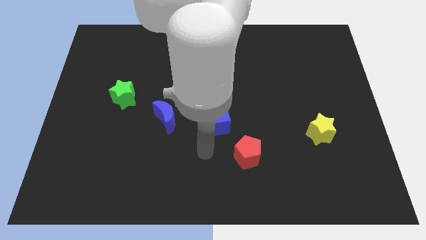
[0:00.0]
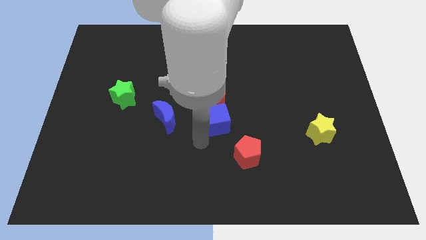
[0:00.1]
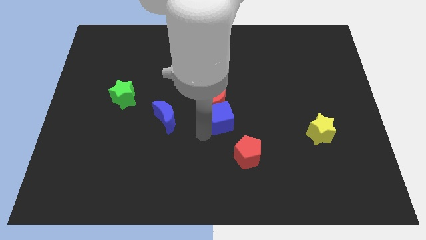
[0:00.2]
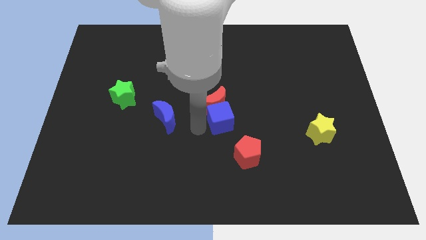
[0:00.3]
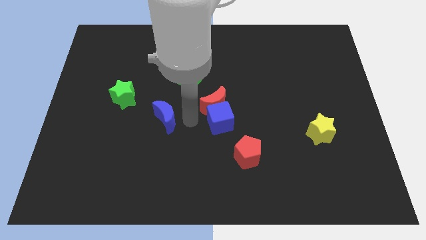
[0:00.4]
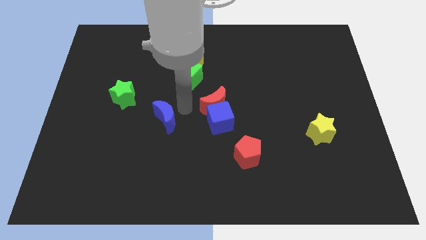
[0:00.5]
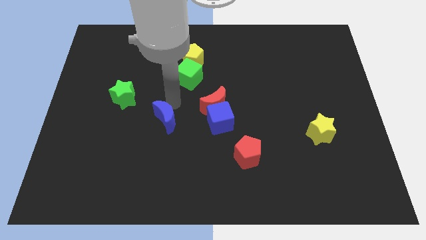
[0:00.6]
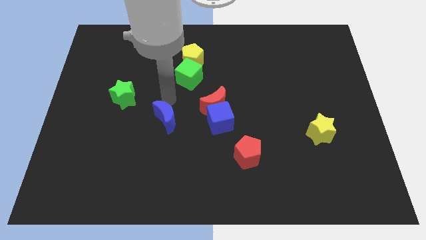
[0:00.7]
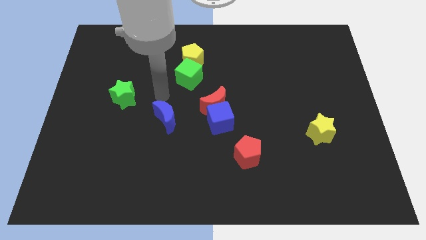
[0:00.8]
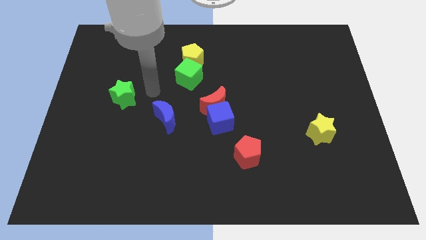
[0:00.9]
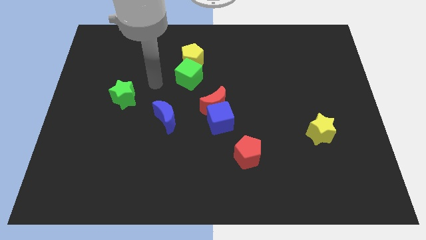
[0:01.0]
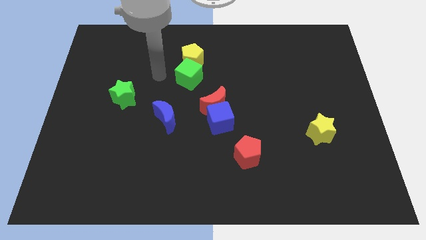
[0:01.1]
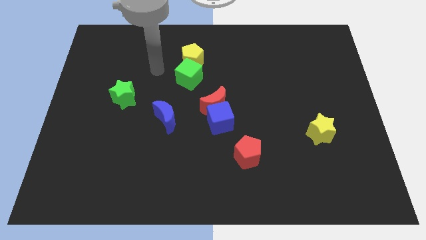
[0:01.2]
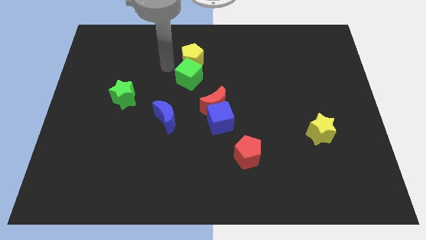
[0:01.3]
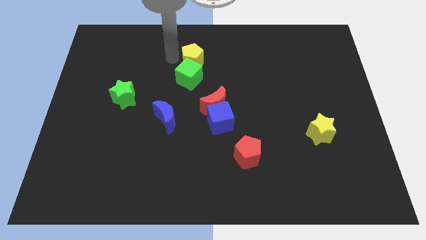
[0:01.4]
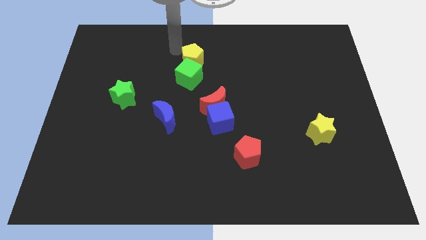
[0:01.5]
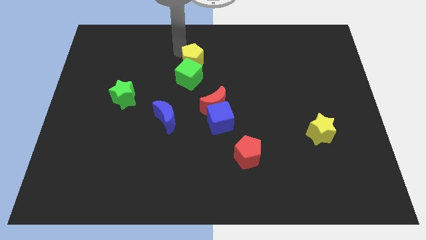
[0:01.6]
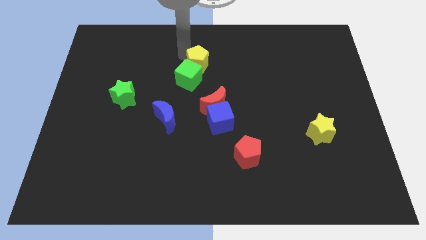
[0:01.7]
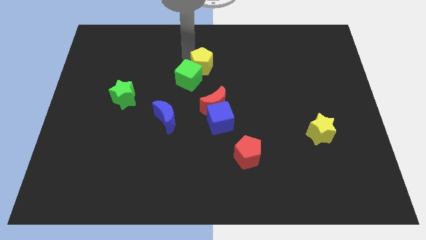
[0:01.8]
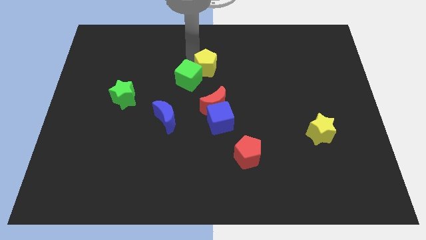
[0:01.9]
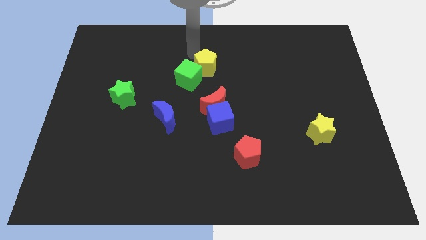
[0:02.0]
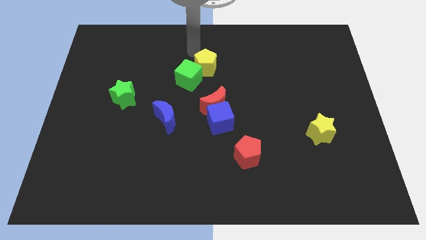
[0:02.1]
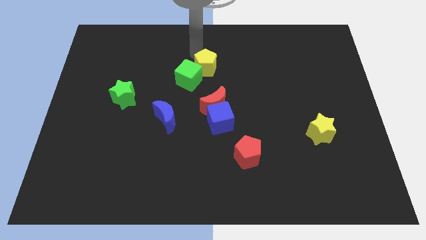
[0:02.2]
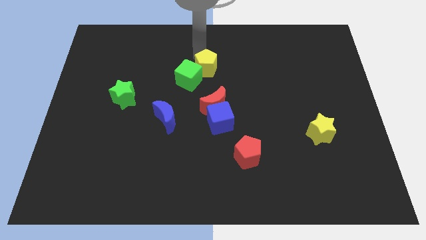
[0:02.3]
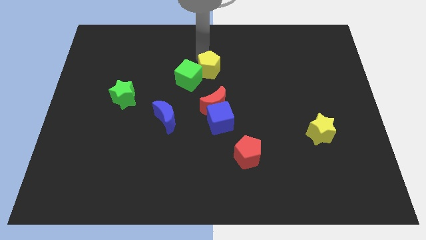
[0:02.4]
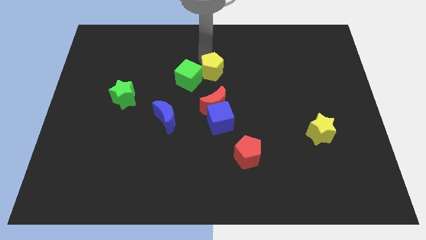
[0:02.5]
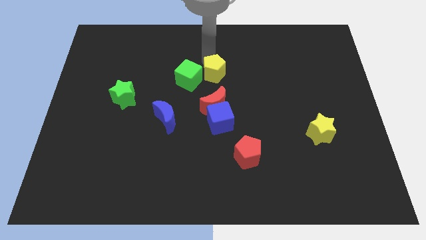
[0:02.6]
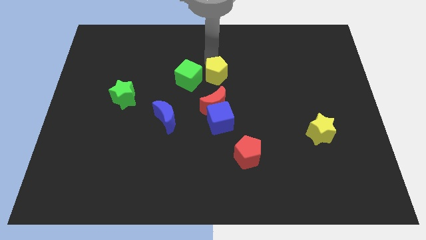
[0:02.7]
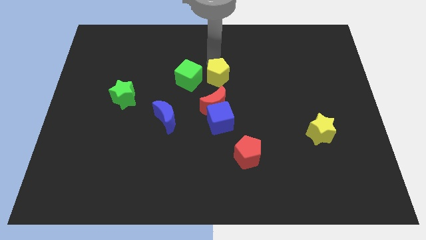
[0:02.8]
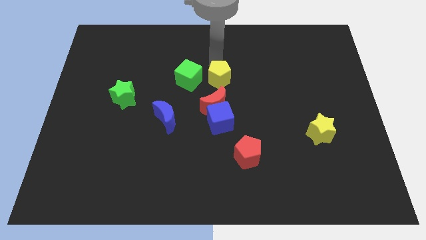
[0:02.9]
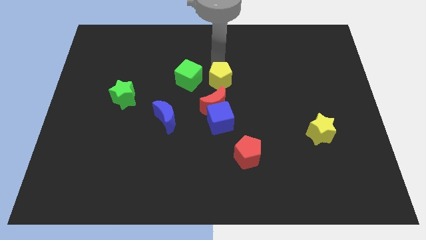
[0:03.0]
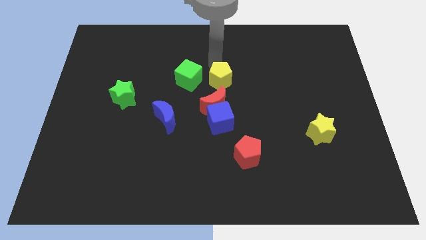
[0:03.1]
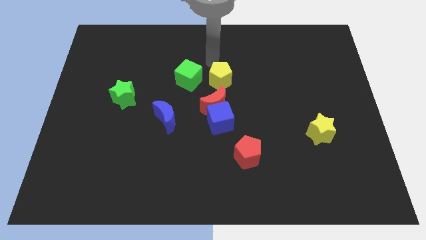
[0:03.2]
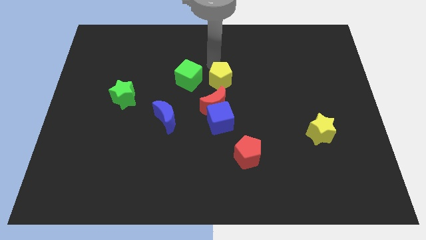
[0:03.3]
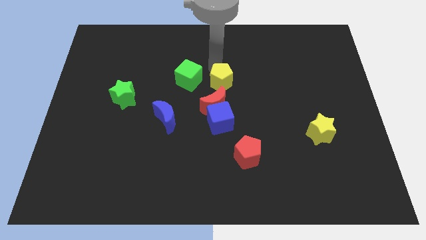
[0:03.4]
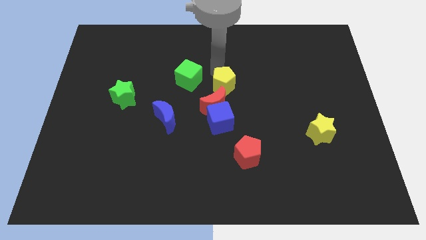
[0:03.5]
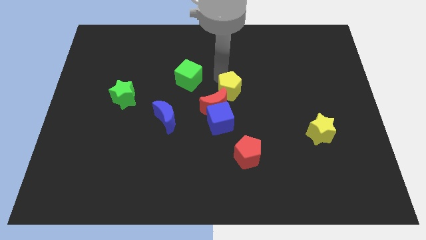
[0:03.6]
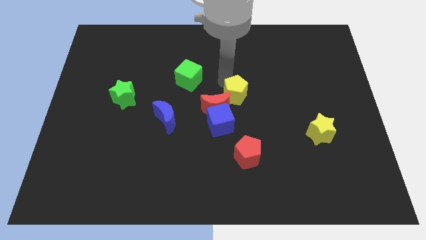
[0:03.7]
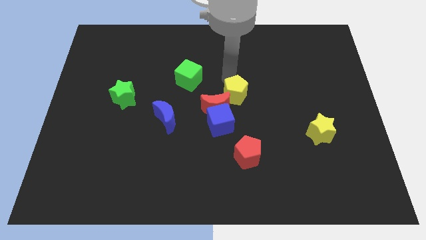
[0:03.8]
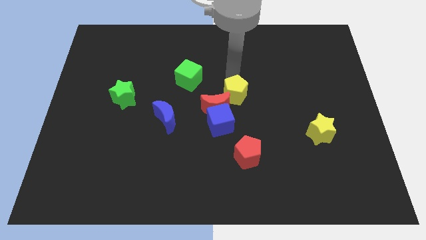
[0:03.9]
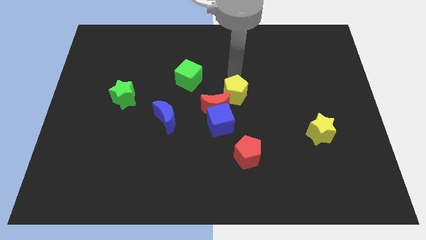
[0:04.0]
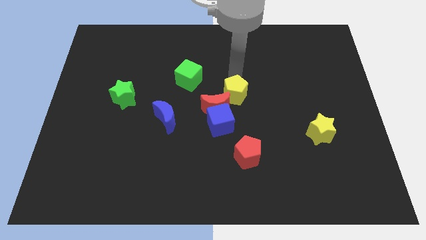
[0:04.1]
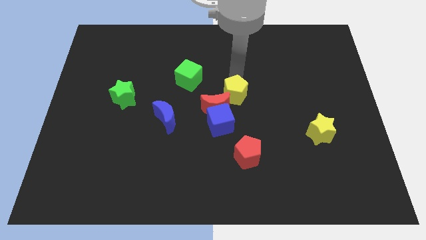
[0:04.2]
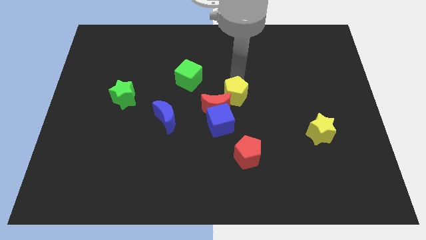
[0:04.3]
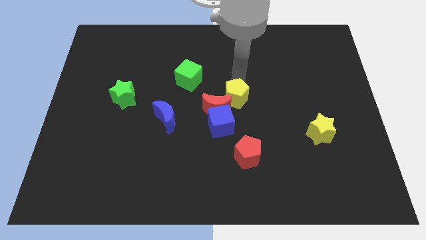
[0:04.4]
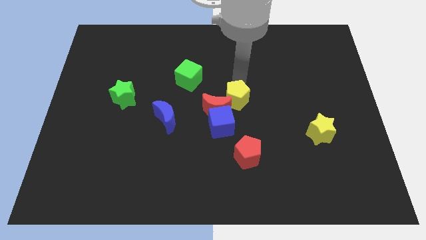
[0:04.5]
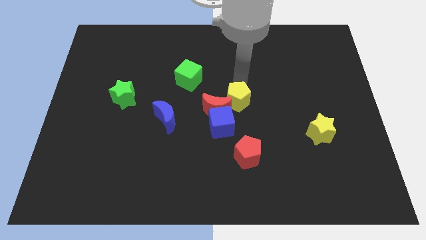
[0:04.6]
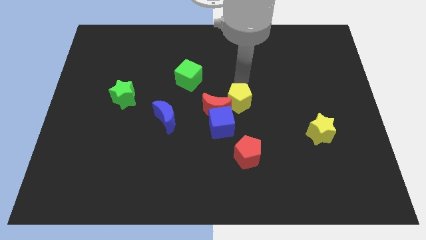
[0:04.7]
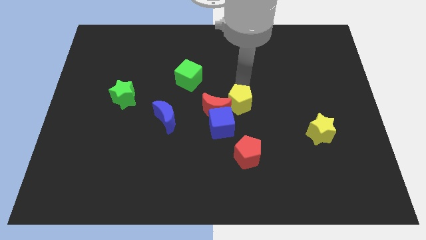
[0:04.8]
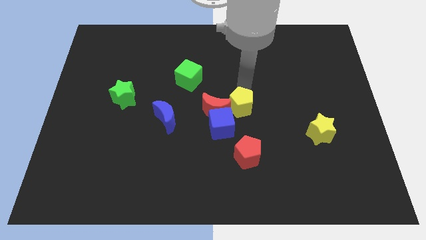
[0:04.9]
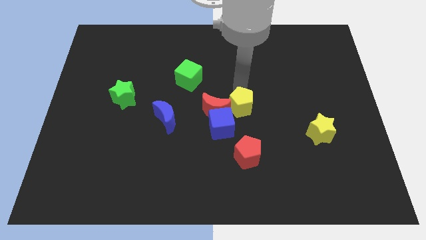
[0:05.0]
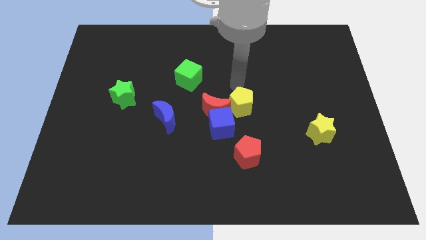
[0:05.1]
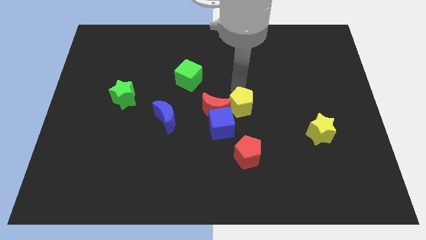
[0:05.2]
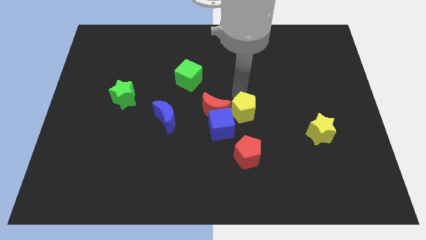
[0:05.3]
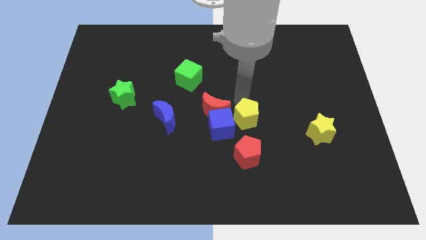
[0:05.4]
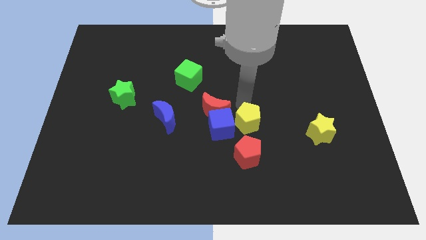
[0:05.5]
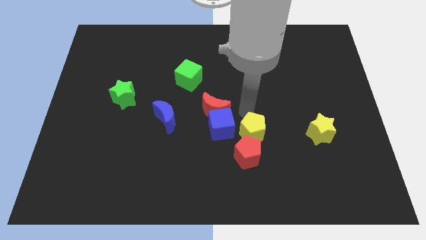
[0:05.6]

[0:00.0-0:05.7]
push the yellow pentagon towards the red pentagon
